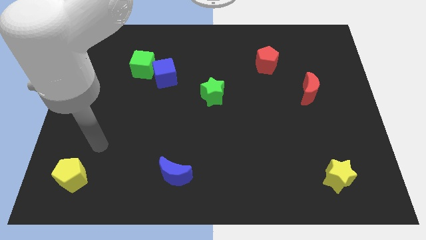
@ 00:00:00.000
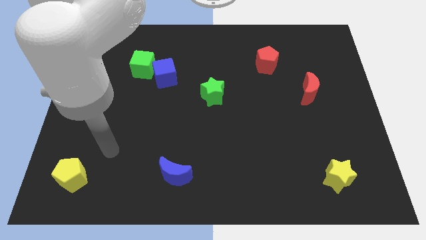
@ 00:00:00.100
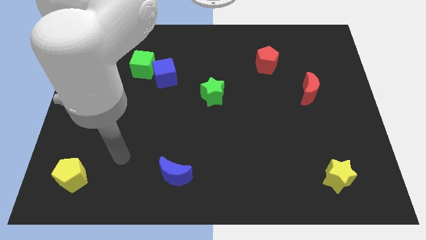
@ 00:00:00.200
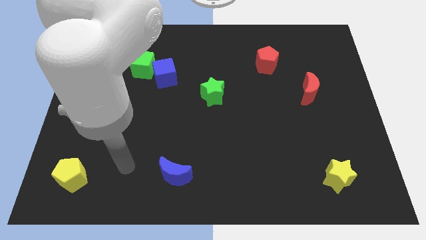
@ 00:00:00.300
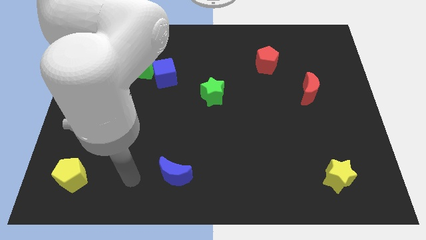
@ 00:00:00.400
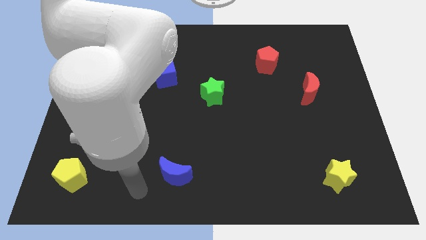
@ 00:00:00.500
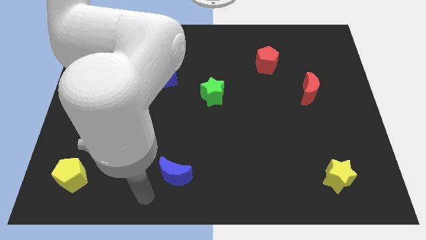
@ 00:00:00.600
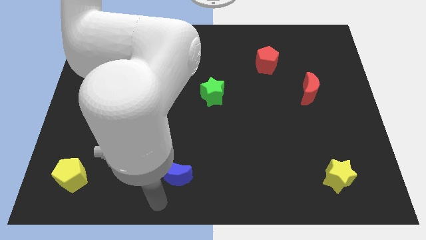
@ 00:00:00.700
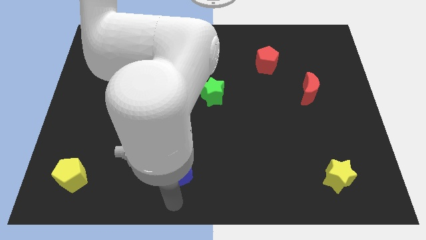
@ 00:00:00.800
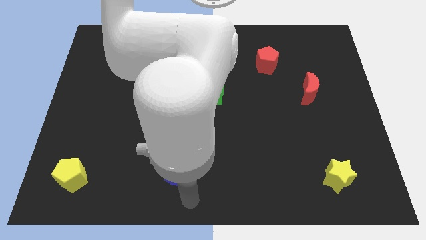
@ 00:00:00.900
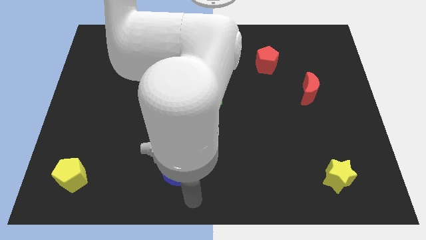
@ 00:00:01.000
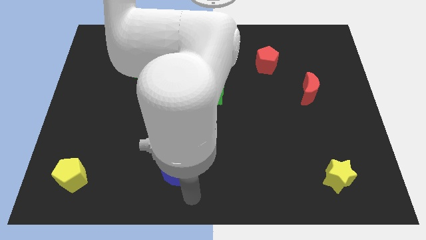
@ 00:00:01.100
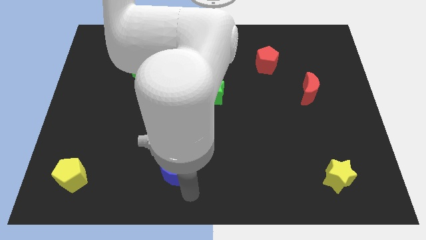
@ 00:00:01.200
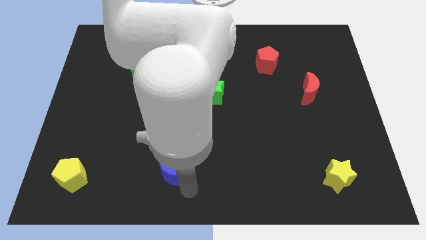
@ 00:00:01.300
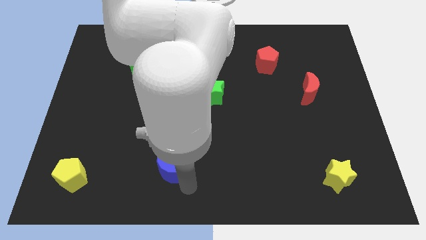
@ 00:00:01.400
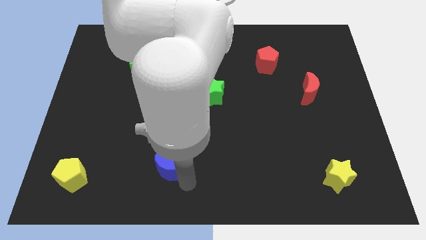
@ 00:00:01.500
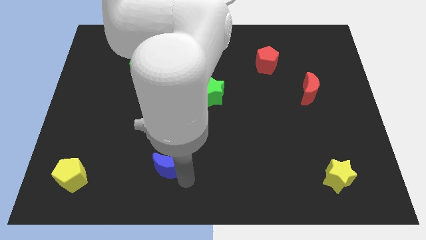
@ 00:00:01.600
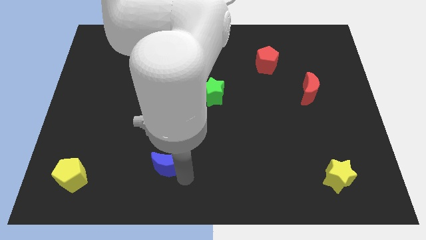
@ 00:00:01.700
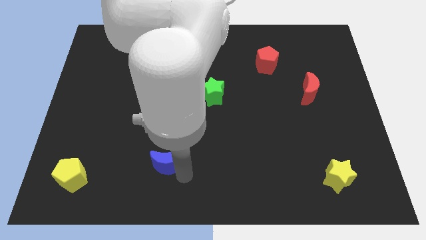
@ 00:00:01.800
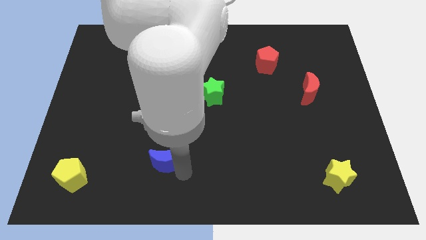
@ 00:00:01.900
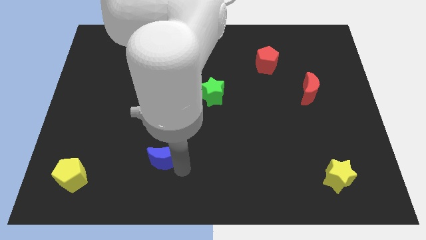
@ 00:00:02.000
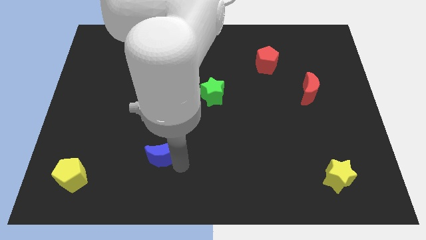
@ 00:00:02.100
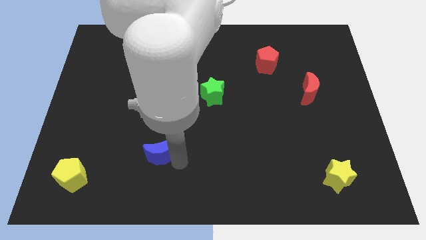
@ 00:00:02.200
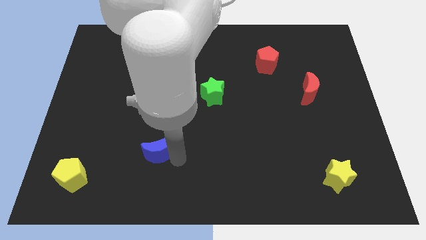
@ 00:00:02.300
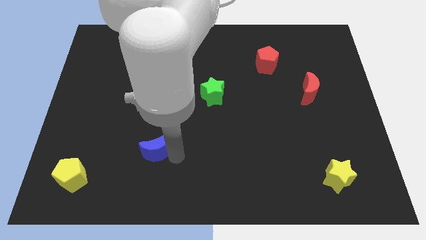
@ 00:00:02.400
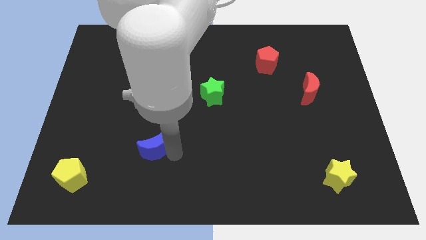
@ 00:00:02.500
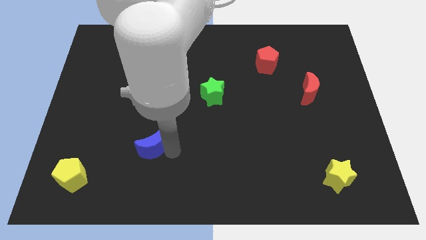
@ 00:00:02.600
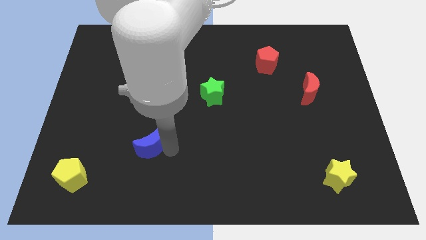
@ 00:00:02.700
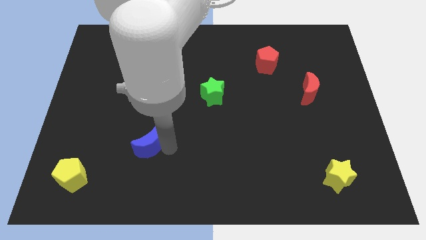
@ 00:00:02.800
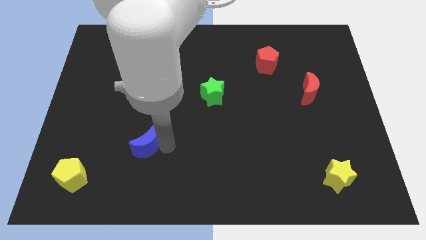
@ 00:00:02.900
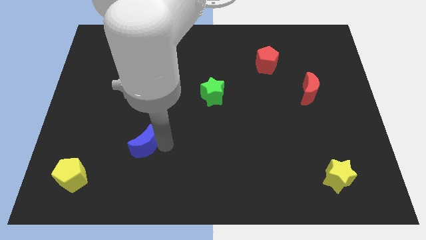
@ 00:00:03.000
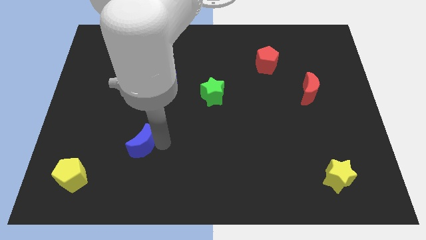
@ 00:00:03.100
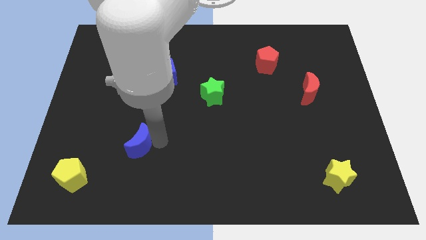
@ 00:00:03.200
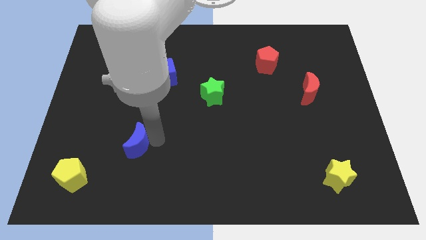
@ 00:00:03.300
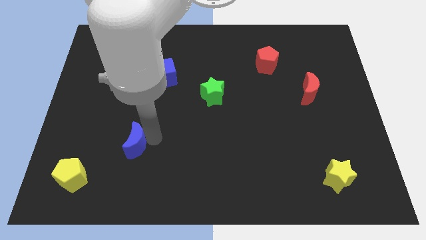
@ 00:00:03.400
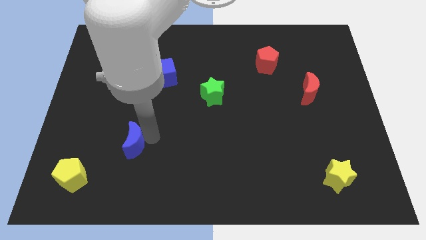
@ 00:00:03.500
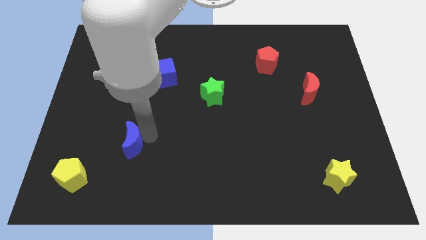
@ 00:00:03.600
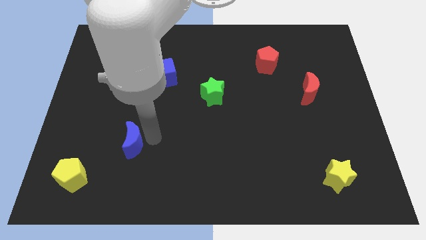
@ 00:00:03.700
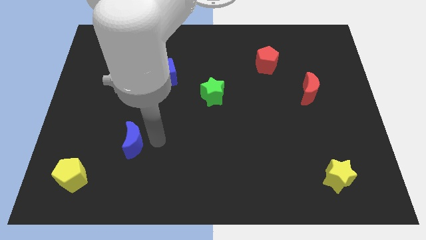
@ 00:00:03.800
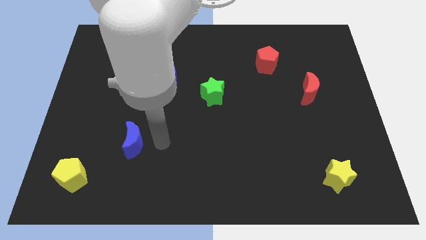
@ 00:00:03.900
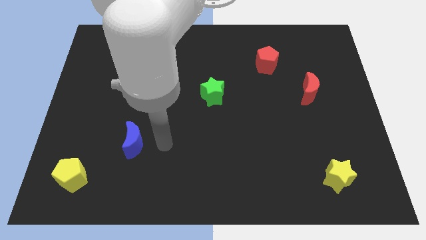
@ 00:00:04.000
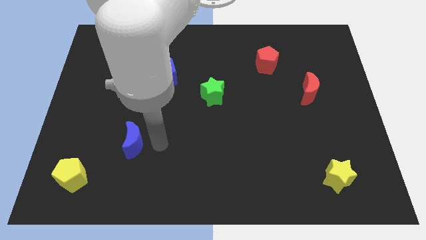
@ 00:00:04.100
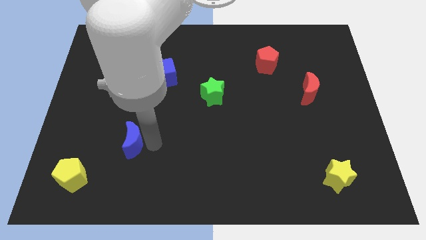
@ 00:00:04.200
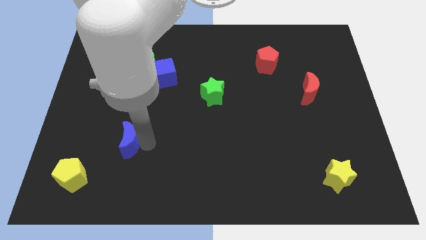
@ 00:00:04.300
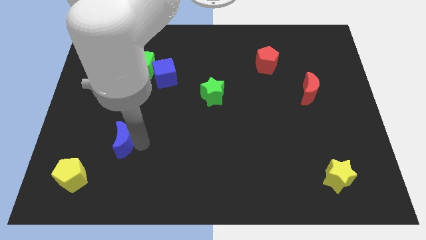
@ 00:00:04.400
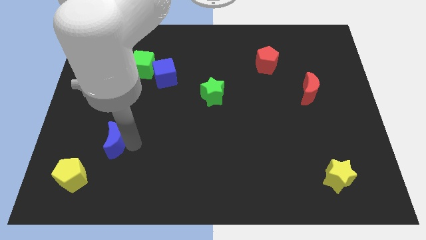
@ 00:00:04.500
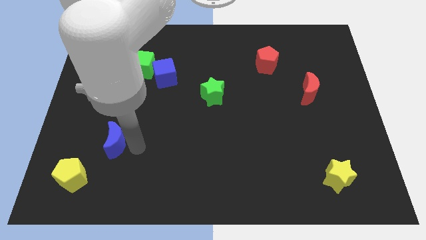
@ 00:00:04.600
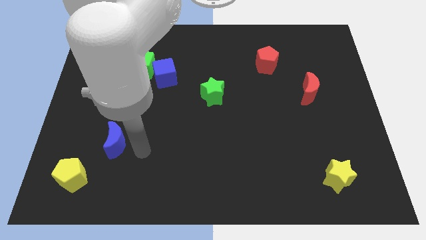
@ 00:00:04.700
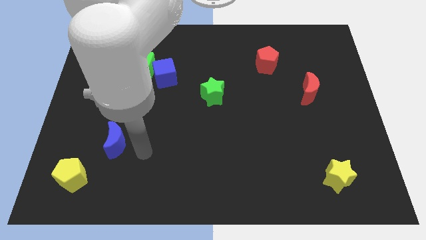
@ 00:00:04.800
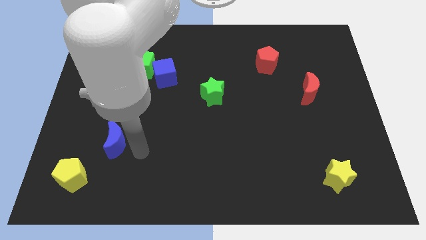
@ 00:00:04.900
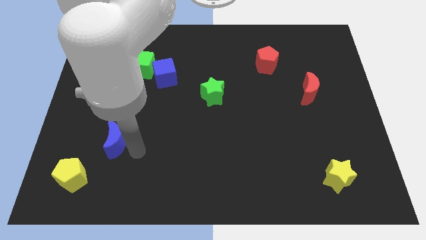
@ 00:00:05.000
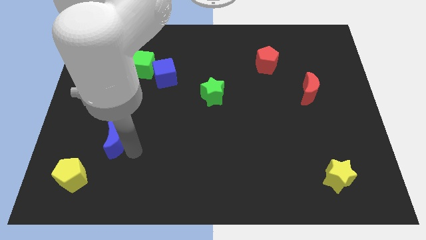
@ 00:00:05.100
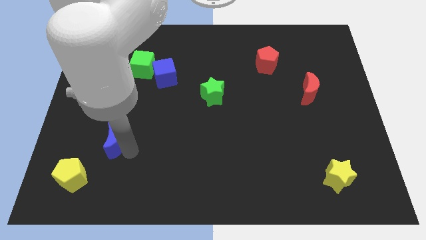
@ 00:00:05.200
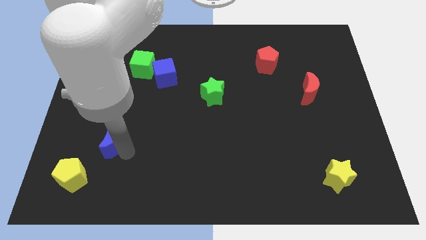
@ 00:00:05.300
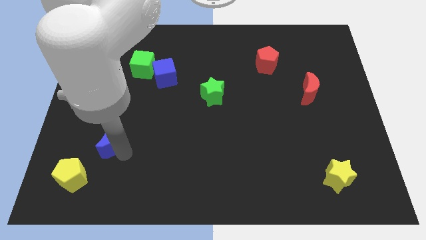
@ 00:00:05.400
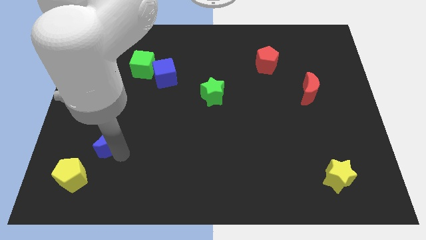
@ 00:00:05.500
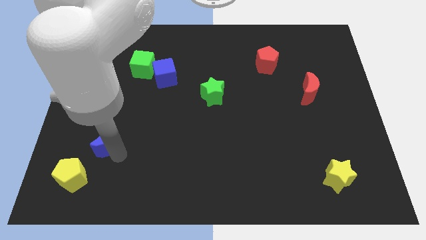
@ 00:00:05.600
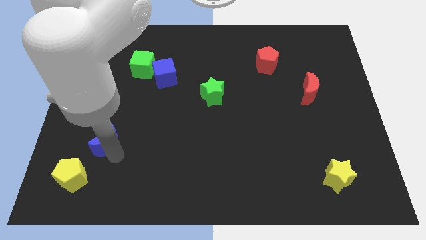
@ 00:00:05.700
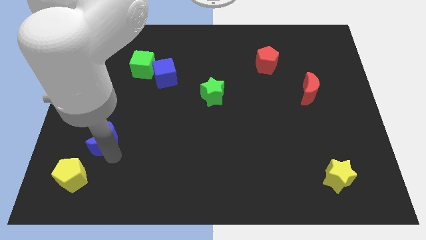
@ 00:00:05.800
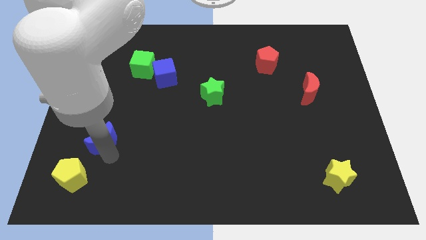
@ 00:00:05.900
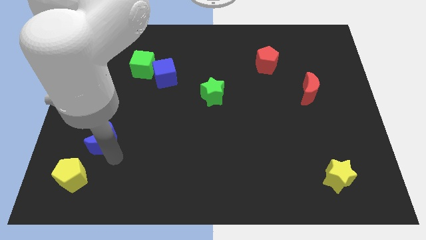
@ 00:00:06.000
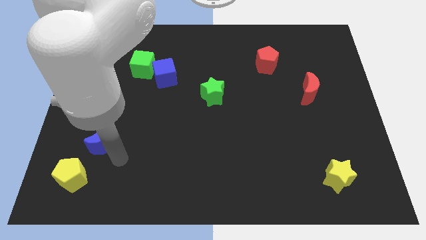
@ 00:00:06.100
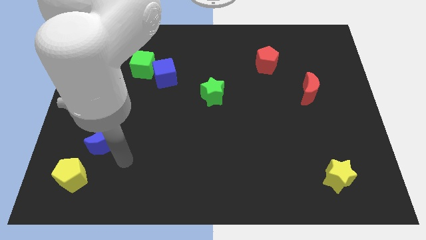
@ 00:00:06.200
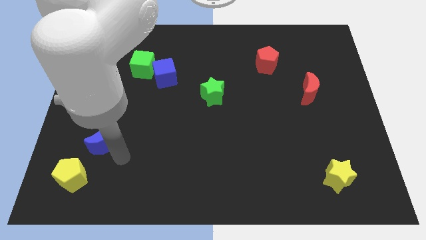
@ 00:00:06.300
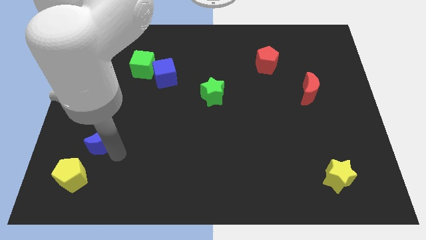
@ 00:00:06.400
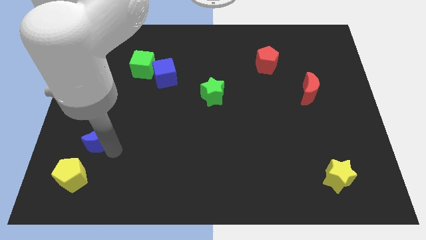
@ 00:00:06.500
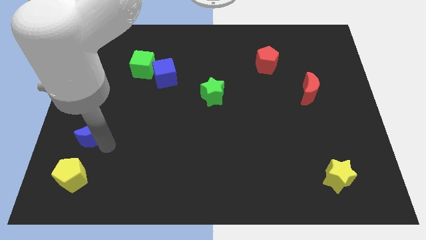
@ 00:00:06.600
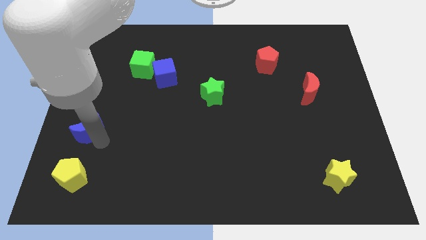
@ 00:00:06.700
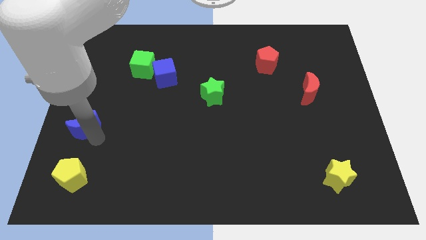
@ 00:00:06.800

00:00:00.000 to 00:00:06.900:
push the blue moon to the left side of the board
